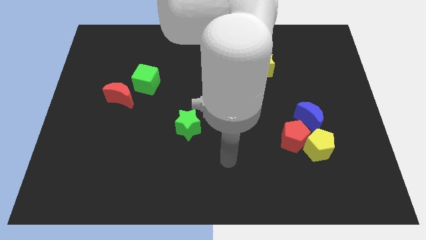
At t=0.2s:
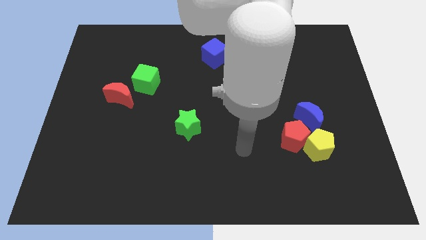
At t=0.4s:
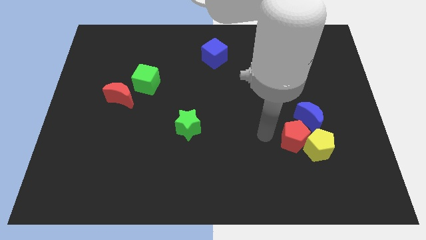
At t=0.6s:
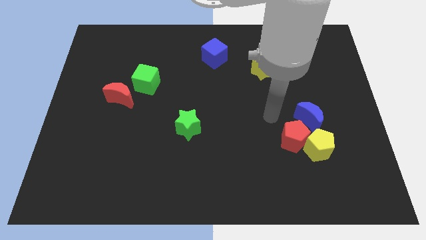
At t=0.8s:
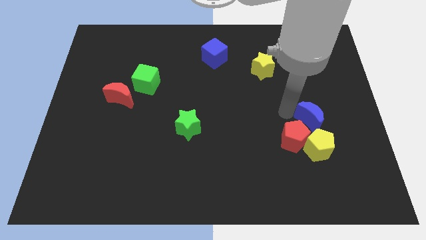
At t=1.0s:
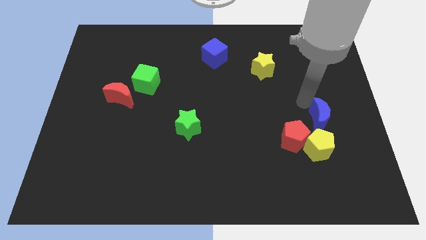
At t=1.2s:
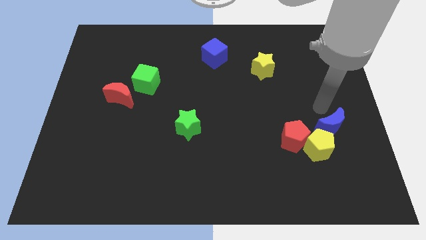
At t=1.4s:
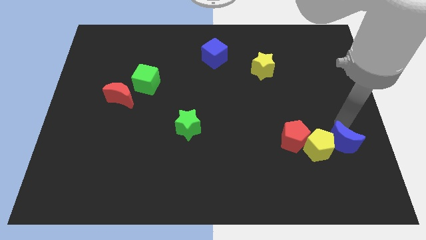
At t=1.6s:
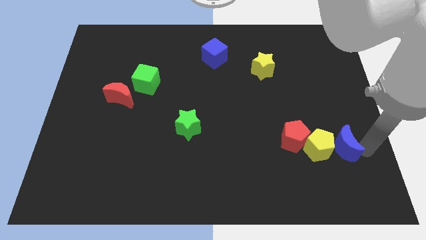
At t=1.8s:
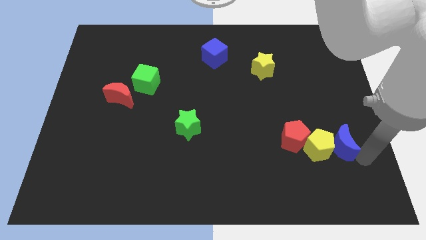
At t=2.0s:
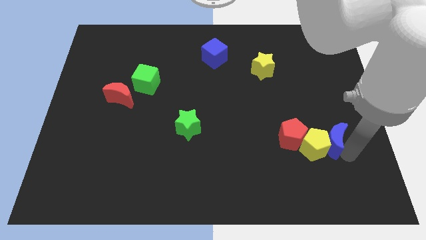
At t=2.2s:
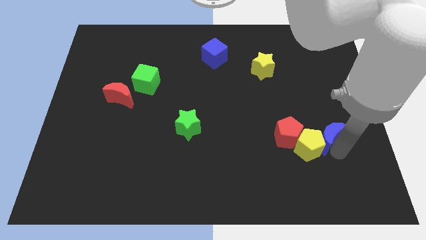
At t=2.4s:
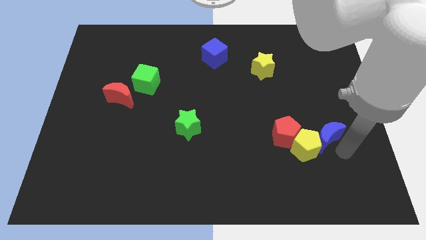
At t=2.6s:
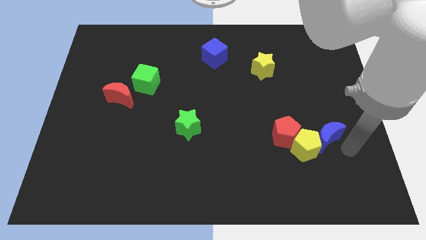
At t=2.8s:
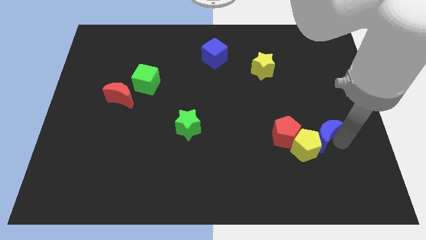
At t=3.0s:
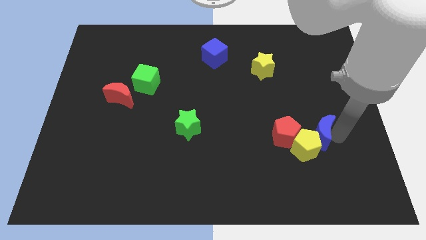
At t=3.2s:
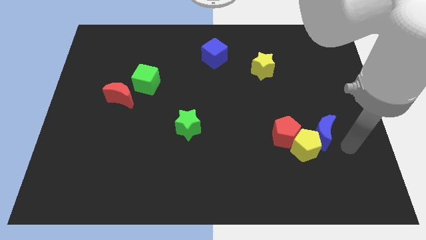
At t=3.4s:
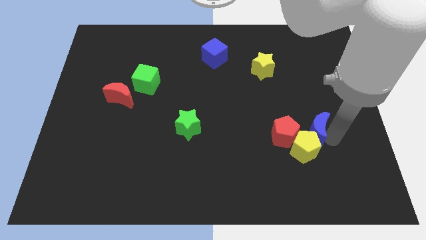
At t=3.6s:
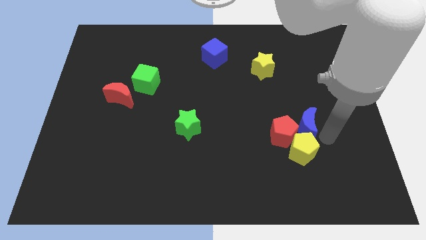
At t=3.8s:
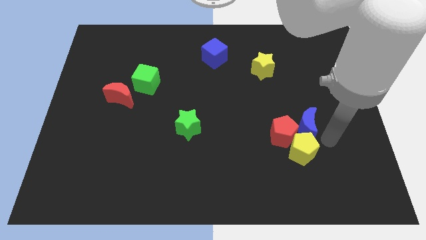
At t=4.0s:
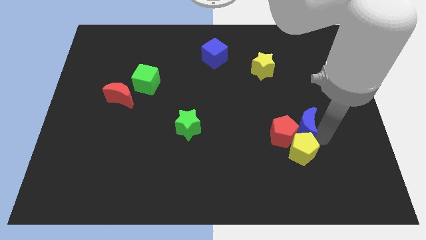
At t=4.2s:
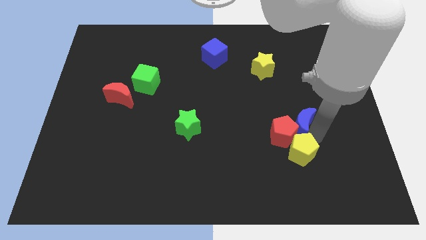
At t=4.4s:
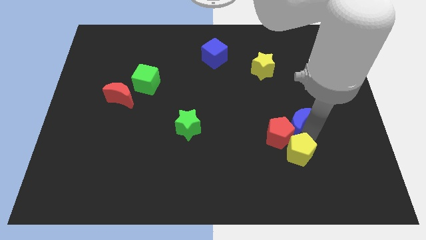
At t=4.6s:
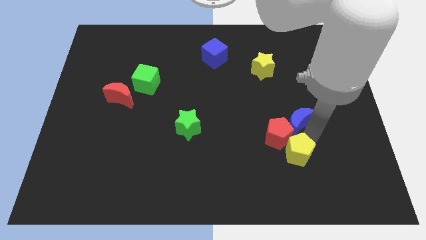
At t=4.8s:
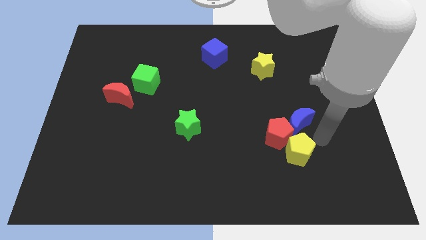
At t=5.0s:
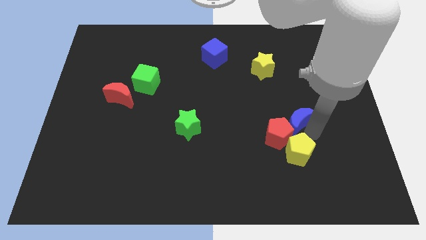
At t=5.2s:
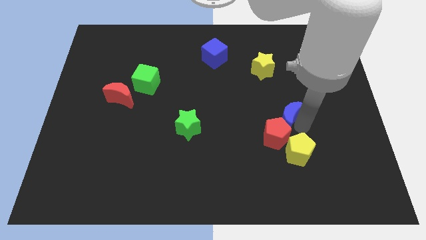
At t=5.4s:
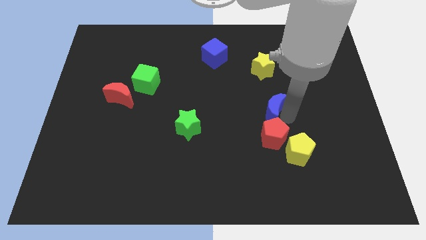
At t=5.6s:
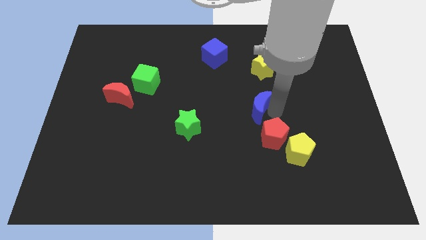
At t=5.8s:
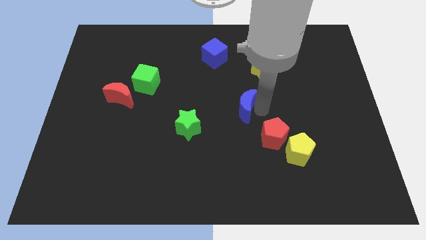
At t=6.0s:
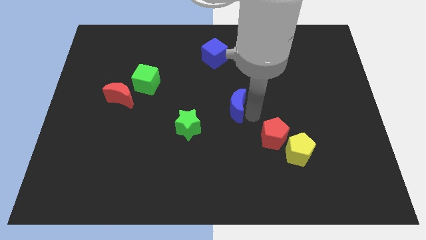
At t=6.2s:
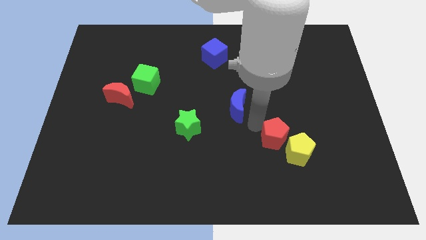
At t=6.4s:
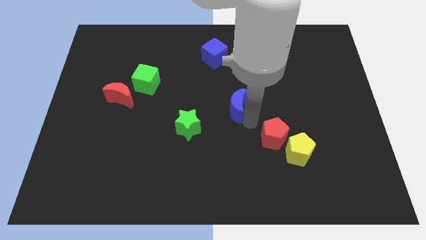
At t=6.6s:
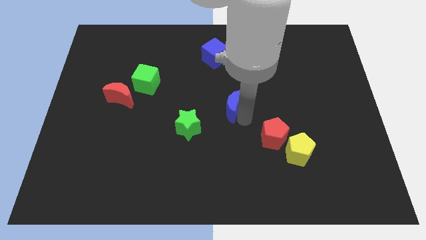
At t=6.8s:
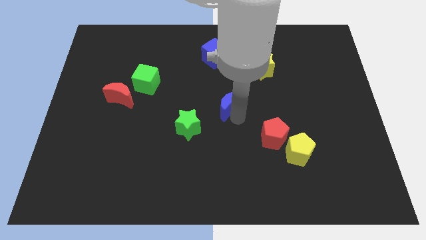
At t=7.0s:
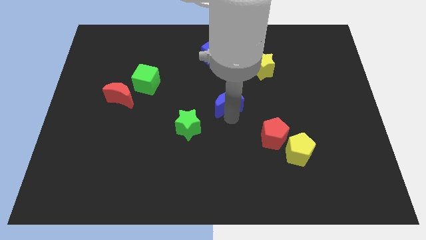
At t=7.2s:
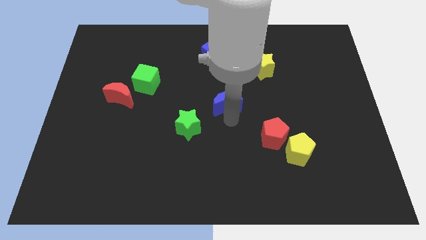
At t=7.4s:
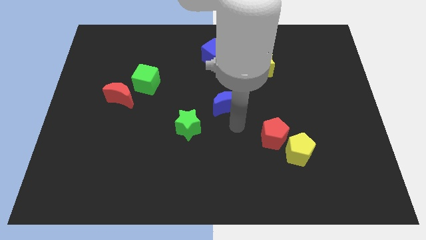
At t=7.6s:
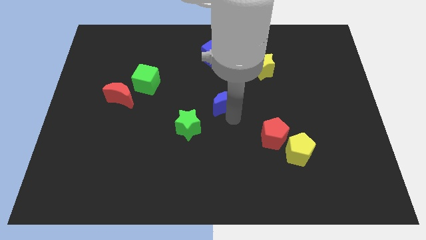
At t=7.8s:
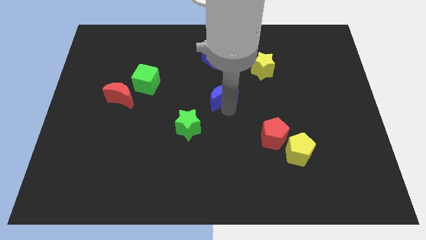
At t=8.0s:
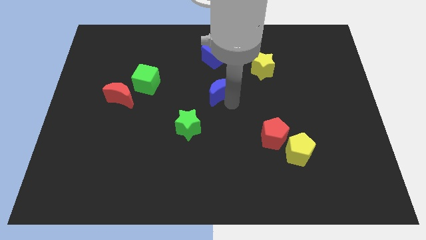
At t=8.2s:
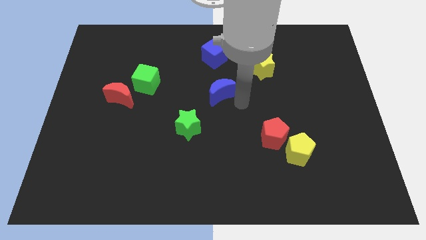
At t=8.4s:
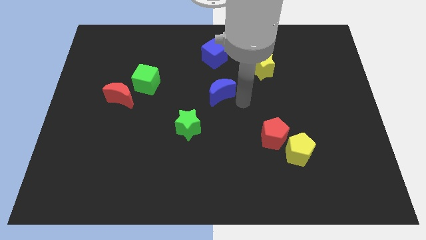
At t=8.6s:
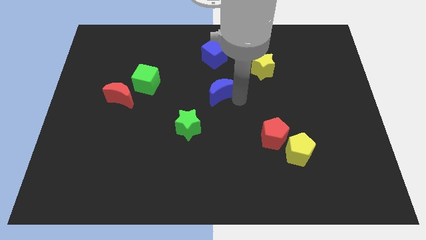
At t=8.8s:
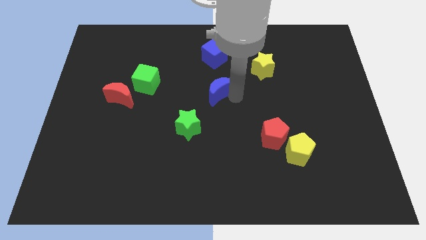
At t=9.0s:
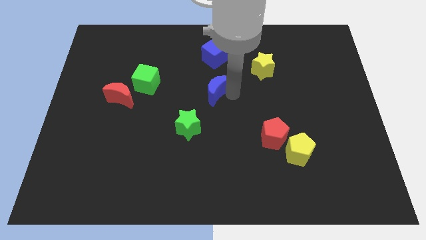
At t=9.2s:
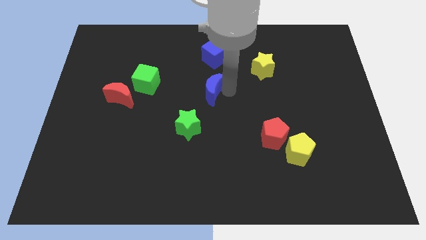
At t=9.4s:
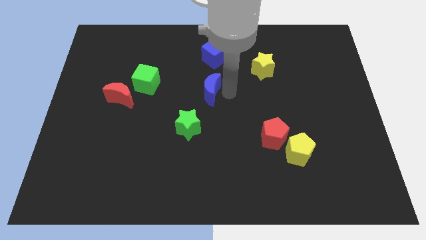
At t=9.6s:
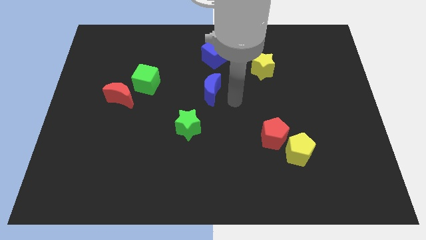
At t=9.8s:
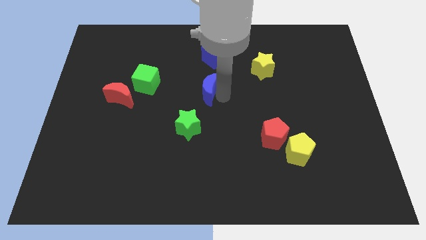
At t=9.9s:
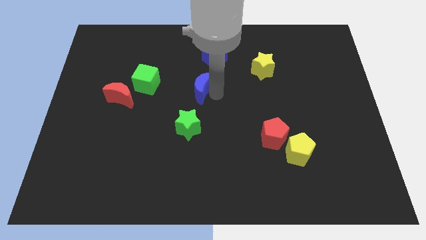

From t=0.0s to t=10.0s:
move the blue moon to the right side of the green cube

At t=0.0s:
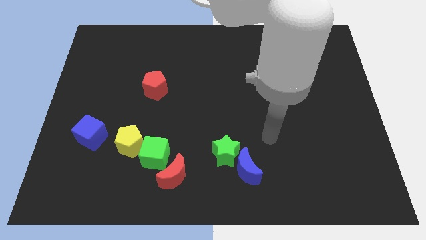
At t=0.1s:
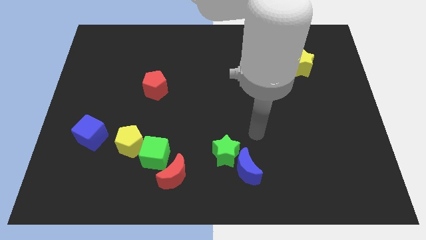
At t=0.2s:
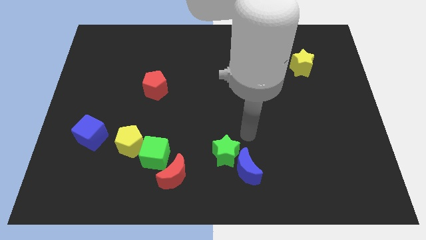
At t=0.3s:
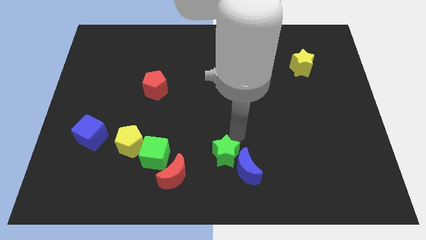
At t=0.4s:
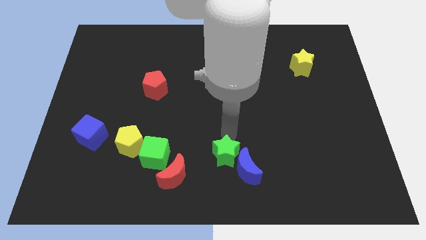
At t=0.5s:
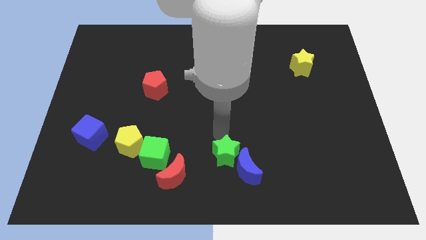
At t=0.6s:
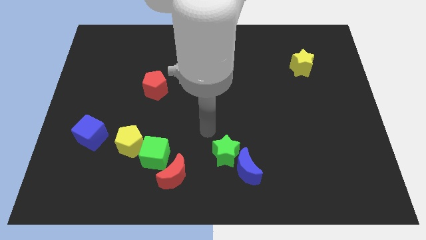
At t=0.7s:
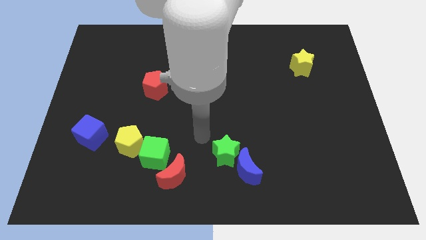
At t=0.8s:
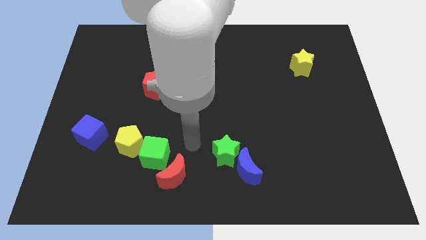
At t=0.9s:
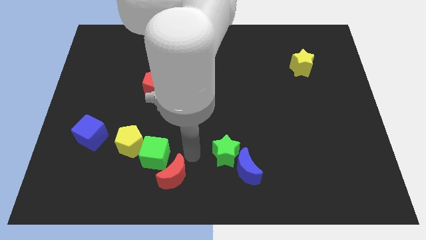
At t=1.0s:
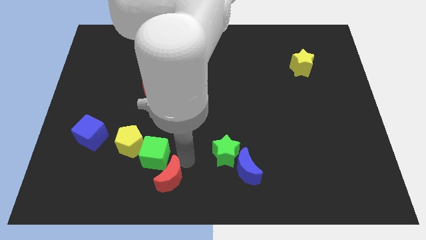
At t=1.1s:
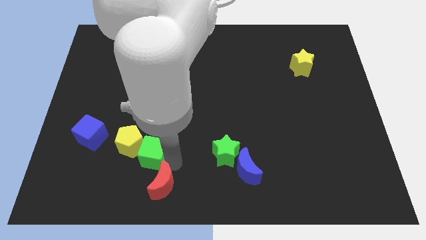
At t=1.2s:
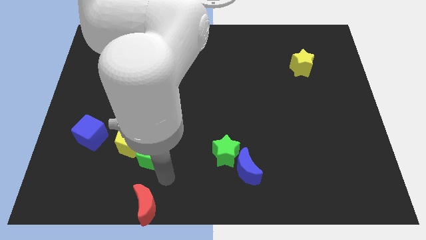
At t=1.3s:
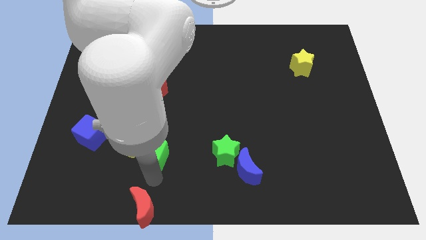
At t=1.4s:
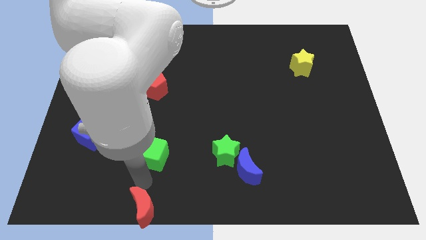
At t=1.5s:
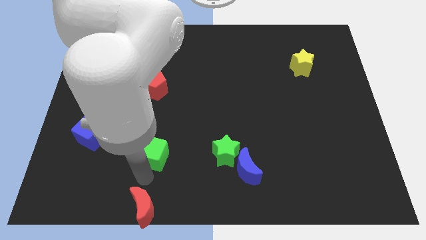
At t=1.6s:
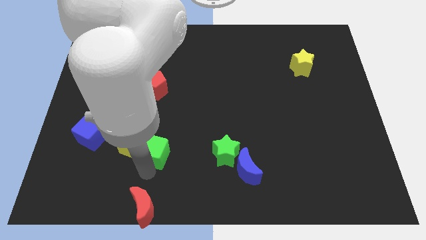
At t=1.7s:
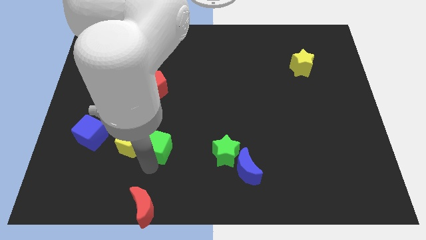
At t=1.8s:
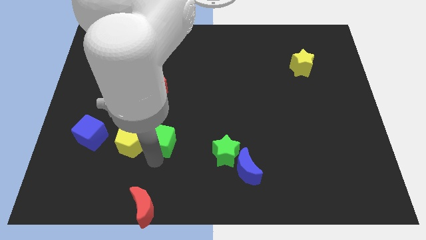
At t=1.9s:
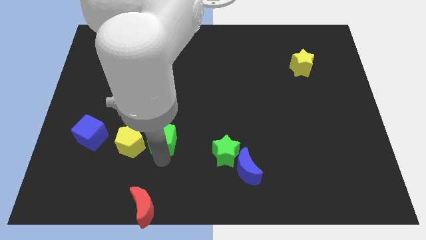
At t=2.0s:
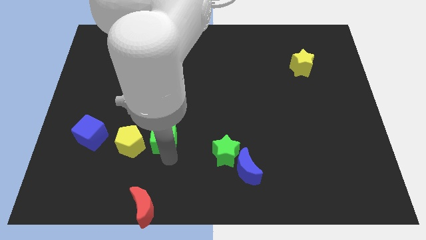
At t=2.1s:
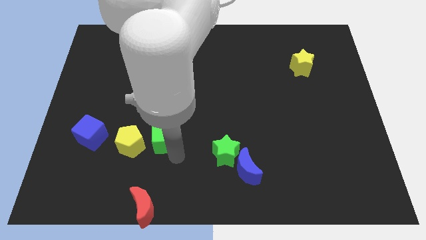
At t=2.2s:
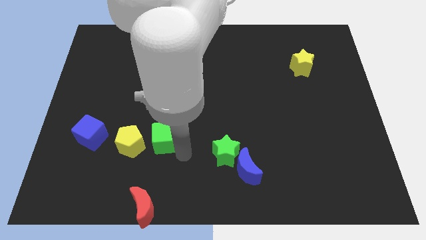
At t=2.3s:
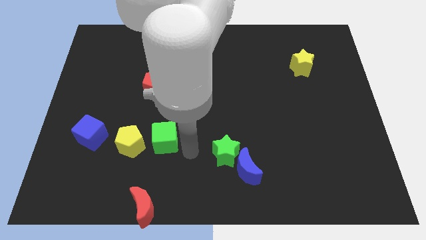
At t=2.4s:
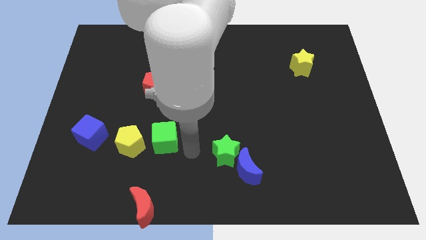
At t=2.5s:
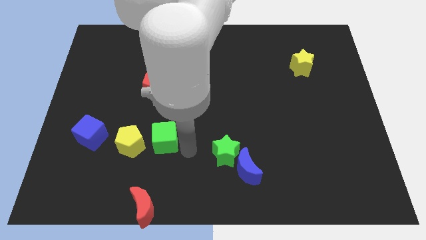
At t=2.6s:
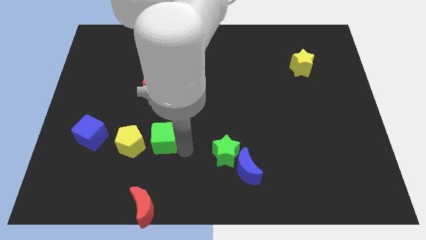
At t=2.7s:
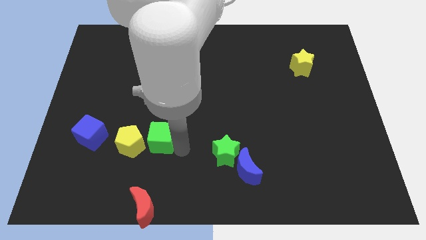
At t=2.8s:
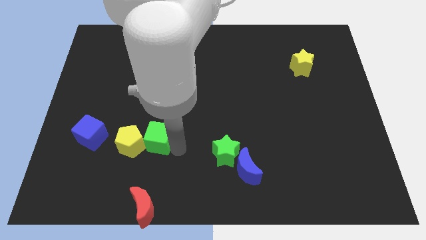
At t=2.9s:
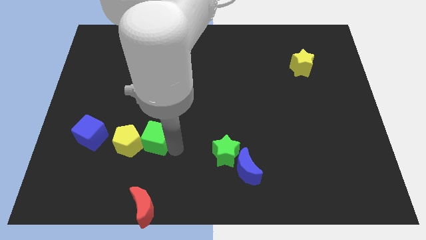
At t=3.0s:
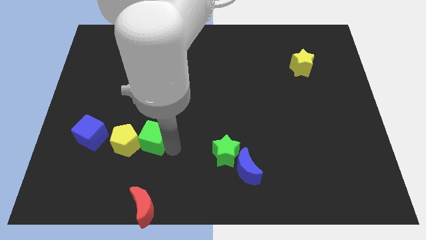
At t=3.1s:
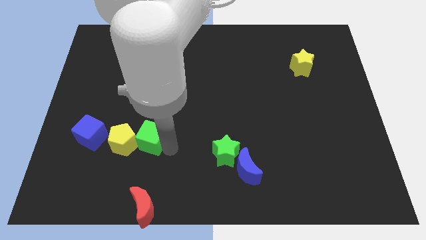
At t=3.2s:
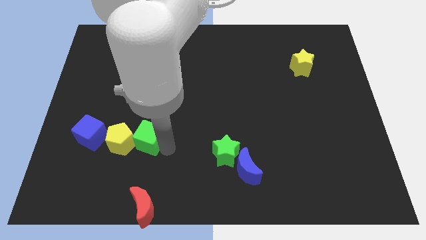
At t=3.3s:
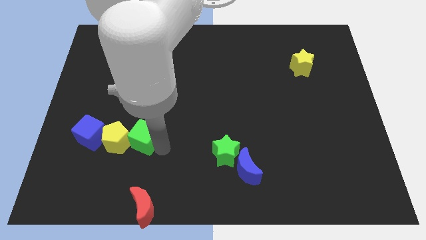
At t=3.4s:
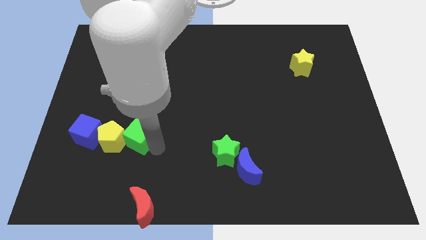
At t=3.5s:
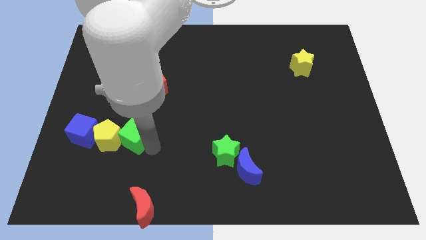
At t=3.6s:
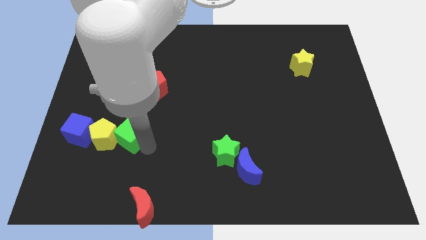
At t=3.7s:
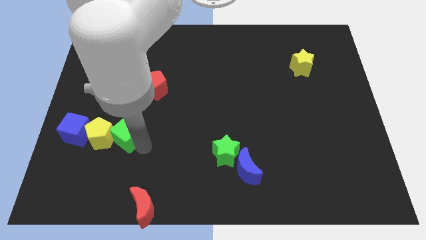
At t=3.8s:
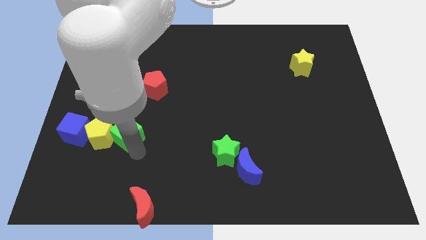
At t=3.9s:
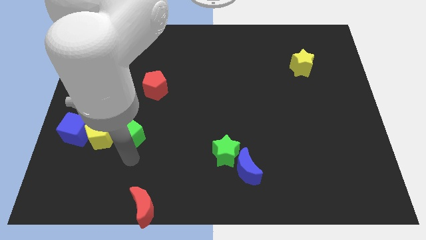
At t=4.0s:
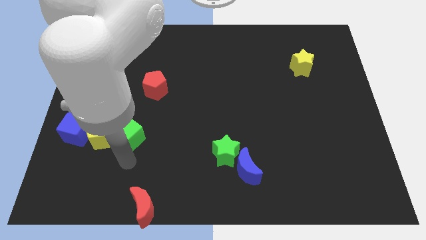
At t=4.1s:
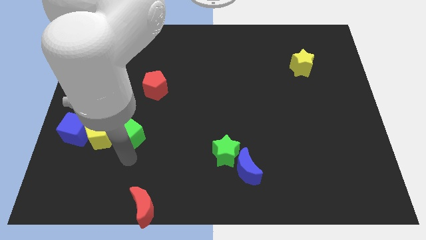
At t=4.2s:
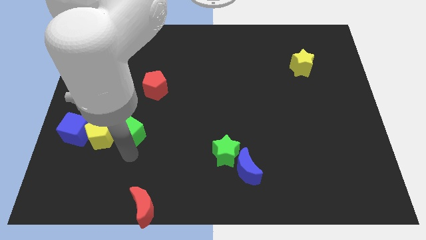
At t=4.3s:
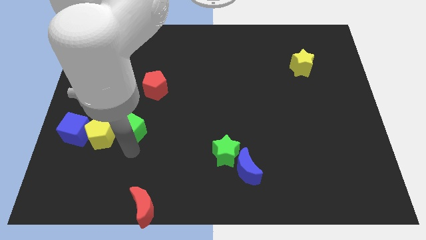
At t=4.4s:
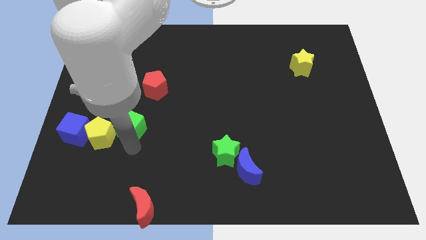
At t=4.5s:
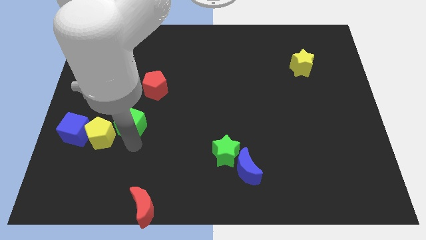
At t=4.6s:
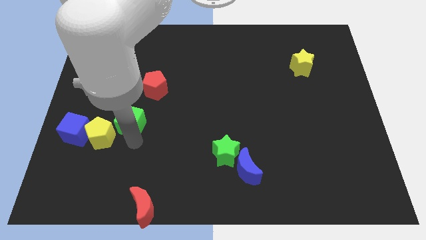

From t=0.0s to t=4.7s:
push the green cube to the bottom left side of the red pentagon
